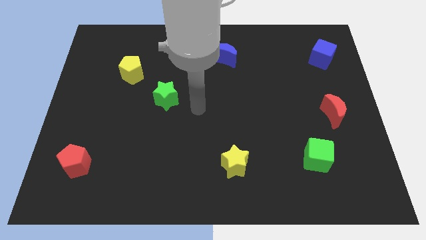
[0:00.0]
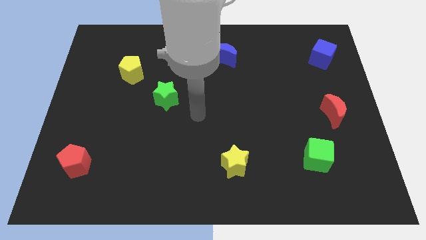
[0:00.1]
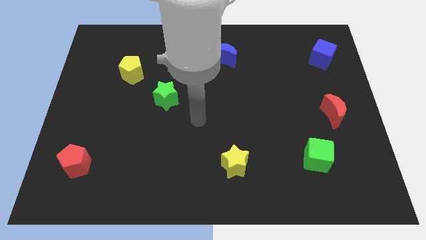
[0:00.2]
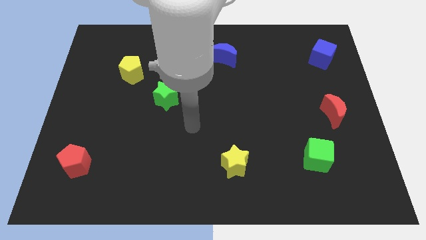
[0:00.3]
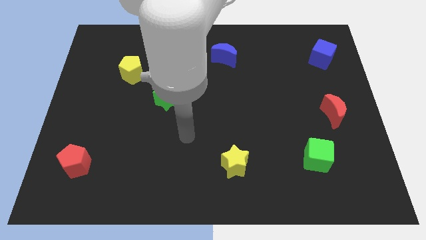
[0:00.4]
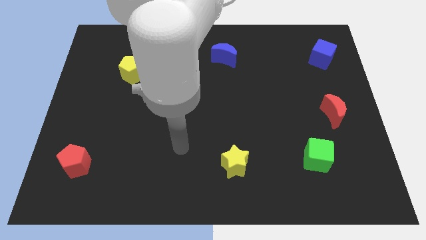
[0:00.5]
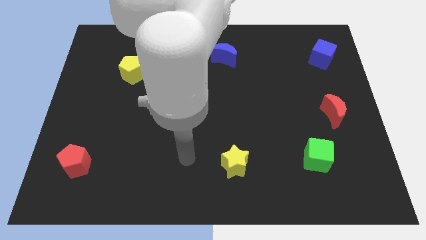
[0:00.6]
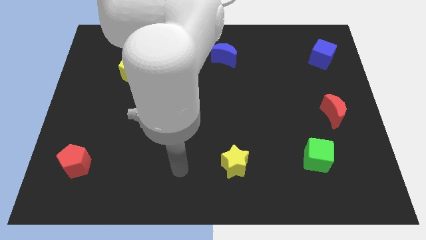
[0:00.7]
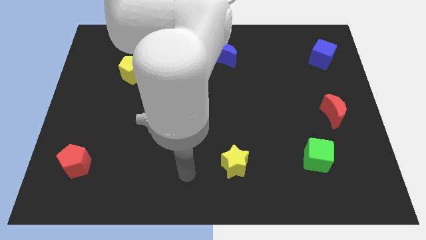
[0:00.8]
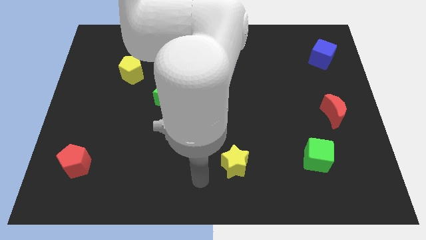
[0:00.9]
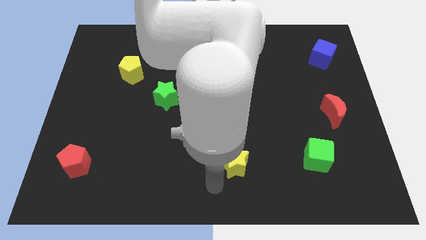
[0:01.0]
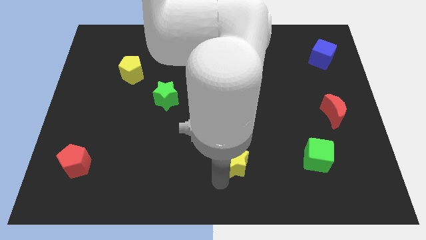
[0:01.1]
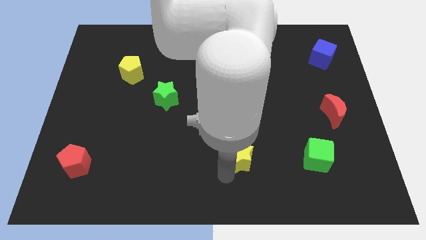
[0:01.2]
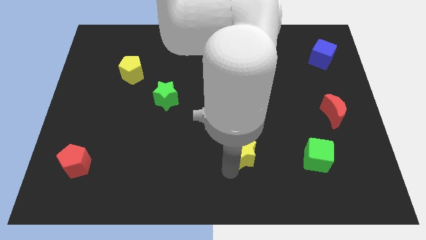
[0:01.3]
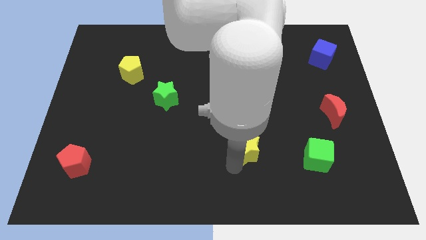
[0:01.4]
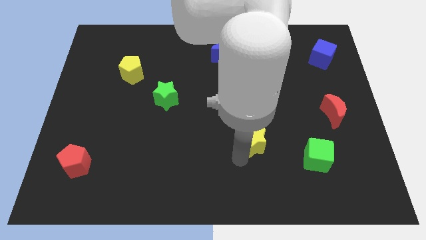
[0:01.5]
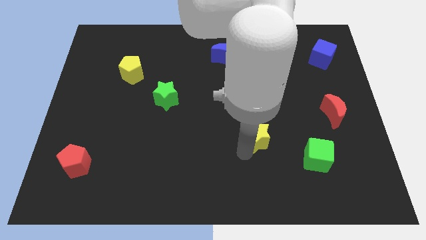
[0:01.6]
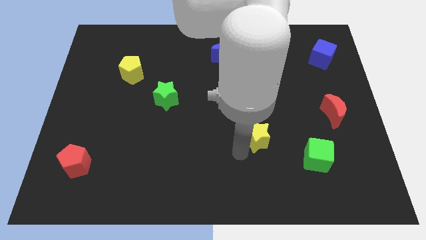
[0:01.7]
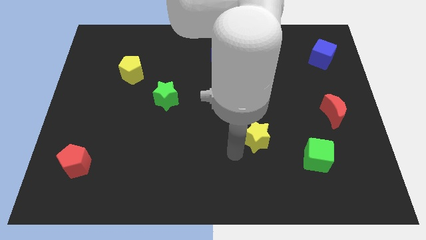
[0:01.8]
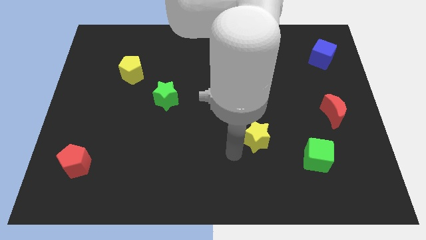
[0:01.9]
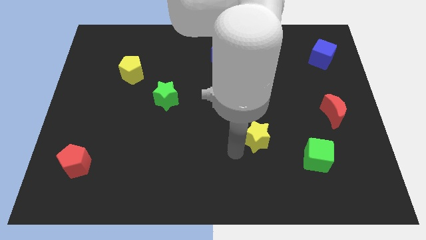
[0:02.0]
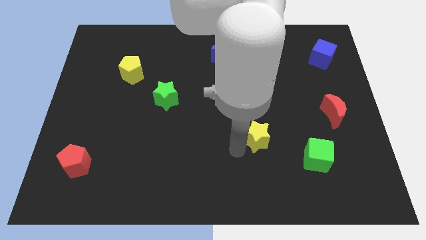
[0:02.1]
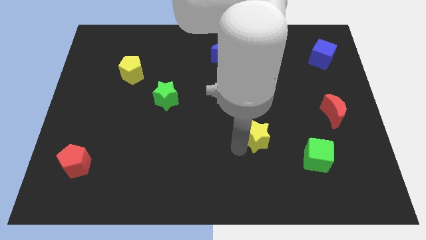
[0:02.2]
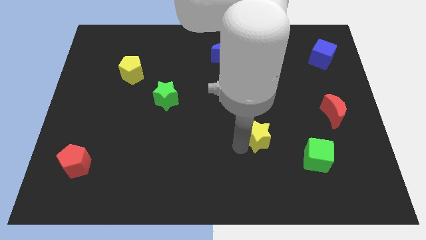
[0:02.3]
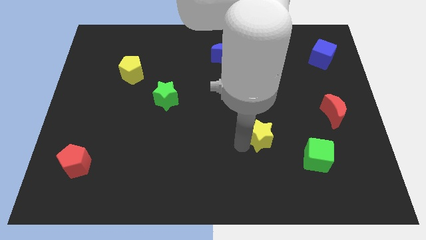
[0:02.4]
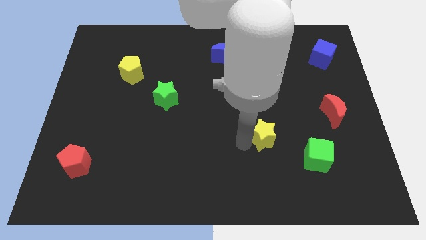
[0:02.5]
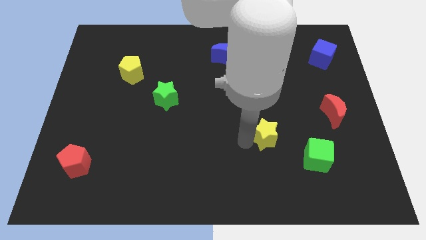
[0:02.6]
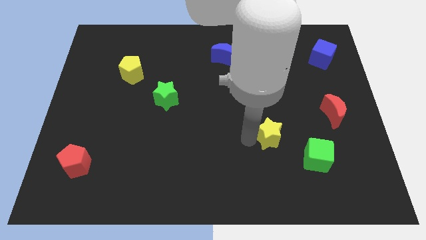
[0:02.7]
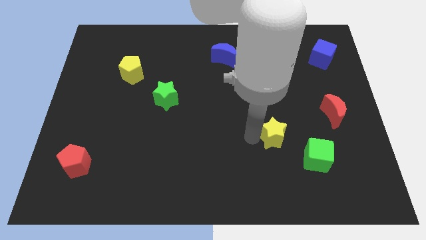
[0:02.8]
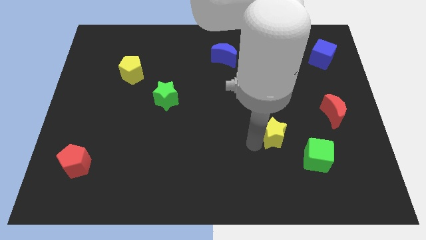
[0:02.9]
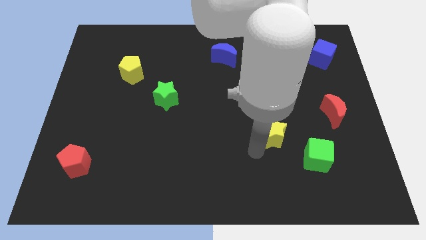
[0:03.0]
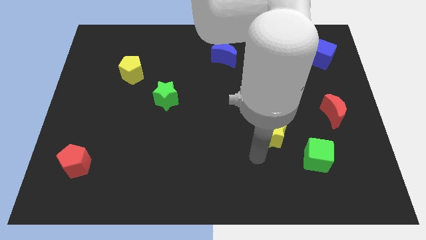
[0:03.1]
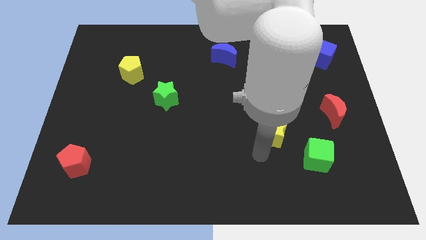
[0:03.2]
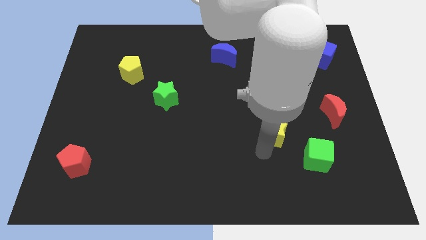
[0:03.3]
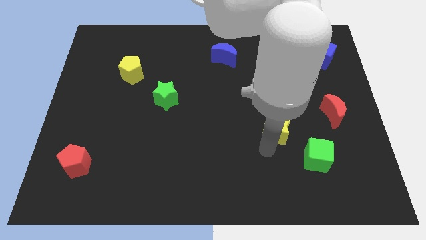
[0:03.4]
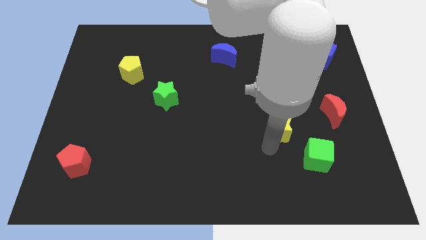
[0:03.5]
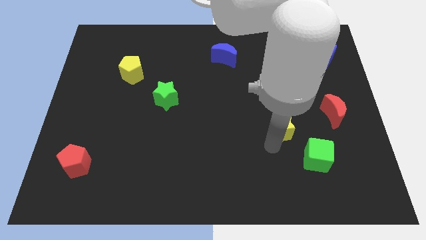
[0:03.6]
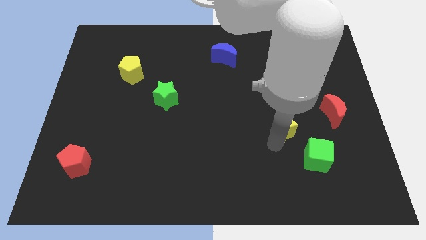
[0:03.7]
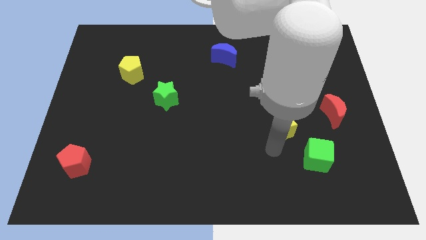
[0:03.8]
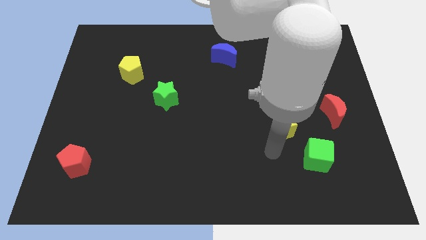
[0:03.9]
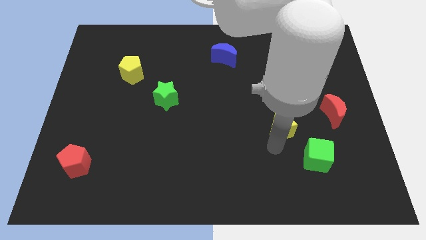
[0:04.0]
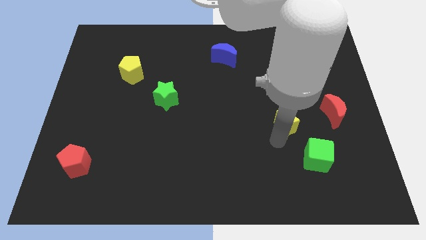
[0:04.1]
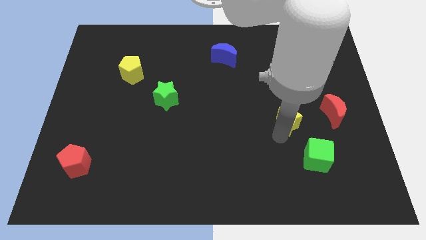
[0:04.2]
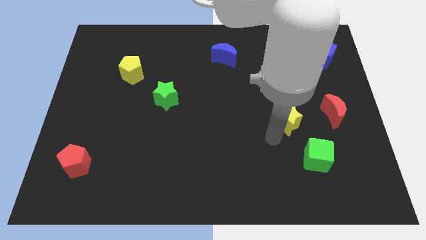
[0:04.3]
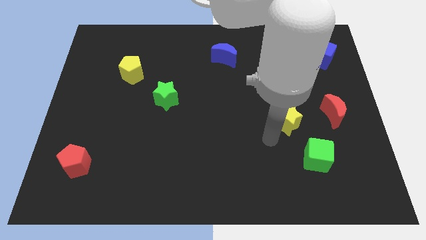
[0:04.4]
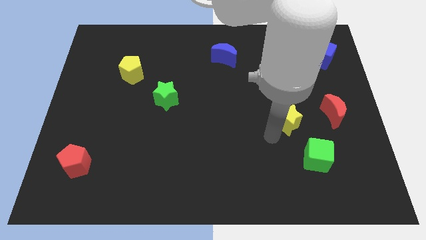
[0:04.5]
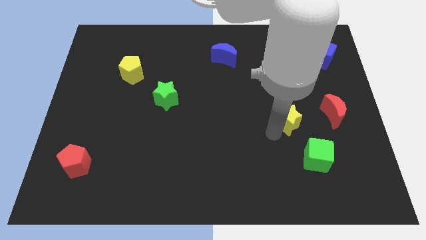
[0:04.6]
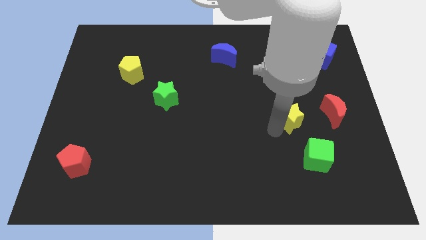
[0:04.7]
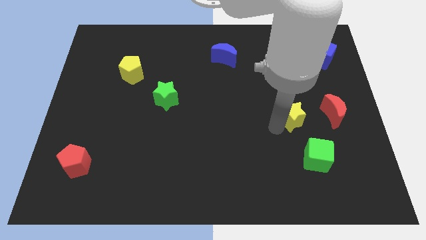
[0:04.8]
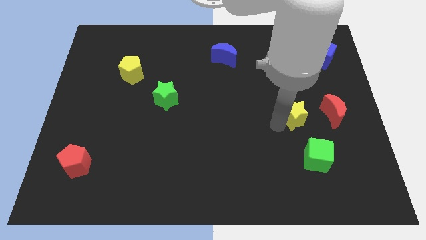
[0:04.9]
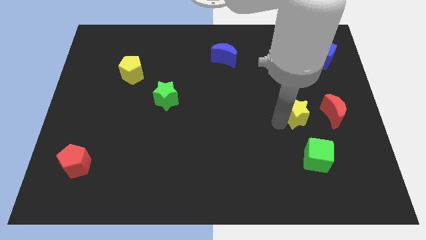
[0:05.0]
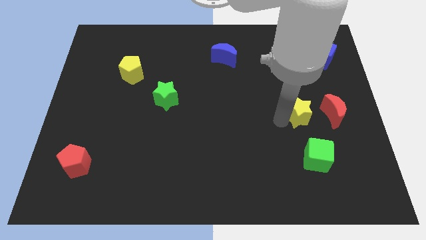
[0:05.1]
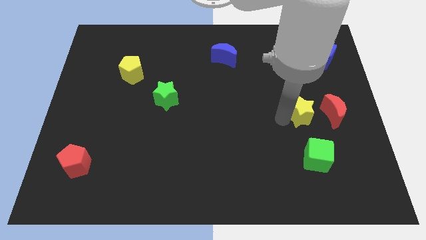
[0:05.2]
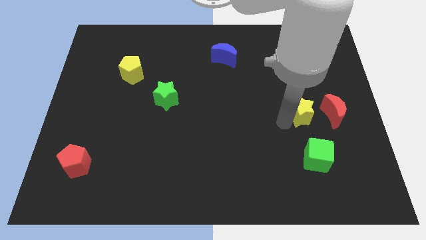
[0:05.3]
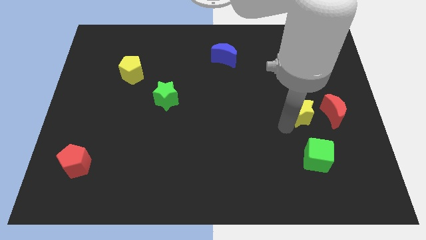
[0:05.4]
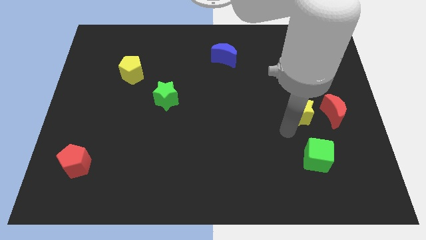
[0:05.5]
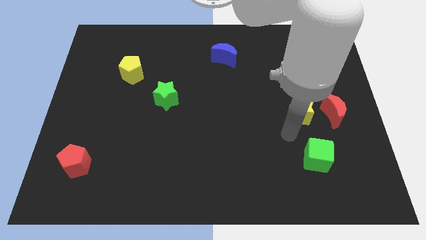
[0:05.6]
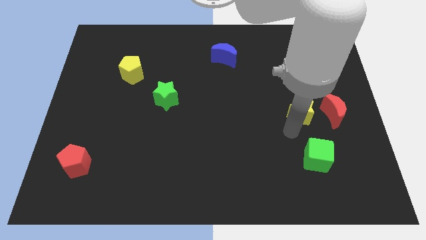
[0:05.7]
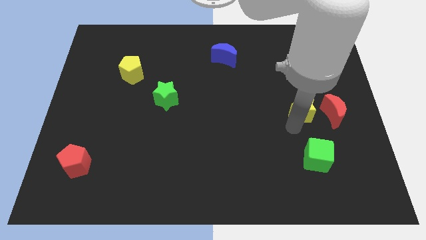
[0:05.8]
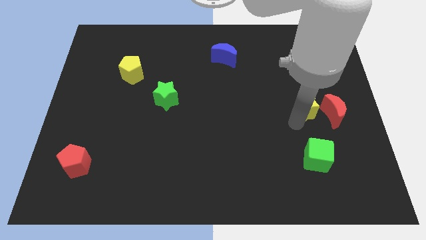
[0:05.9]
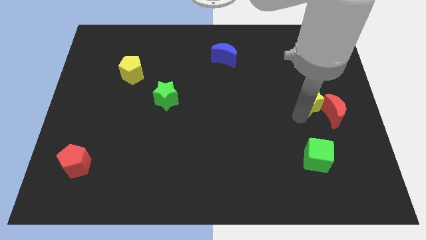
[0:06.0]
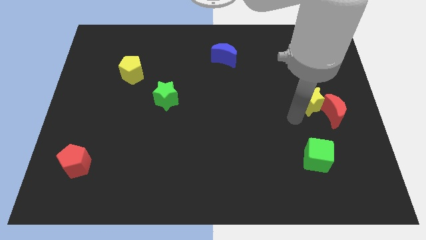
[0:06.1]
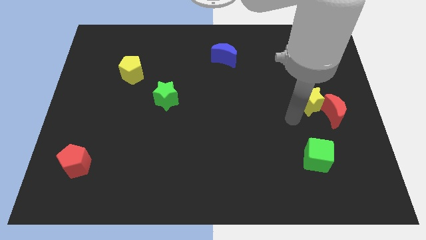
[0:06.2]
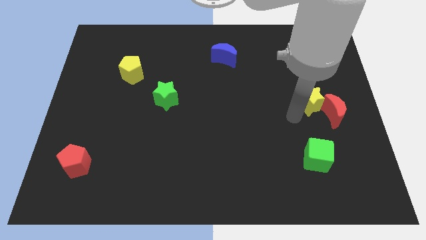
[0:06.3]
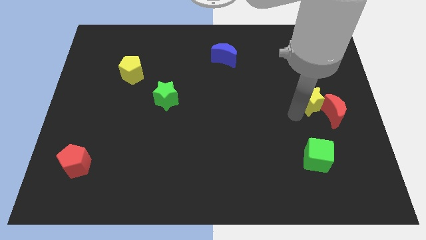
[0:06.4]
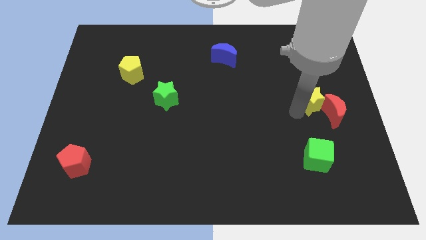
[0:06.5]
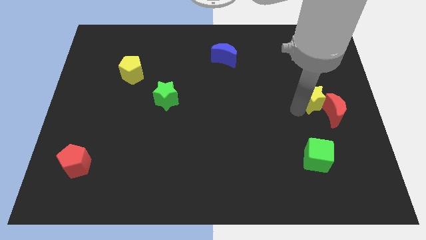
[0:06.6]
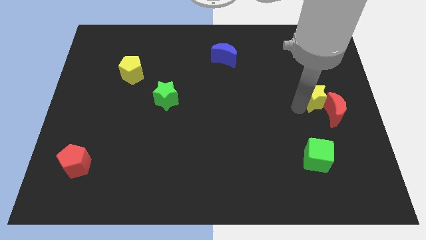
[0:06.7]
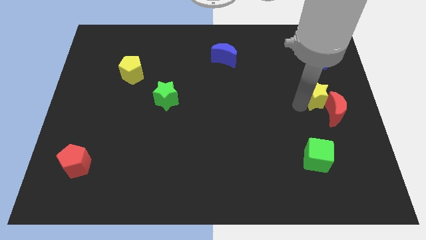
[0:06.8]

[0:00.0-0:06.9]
put the yellow star below the blue cube
